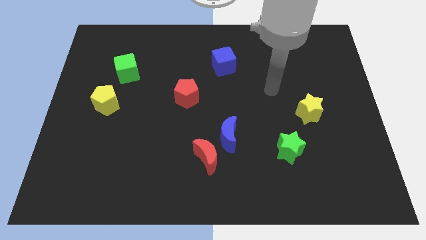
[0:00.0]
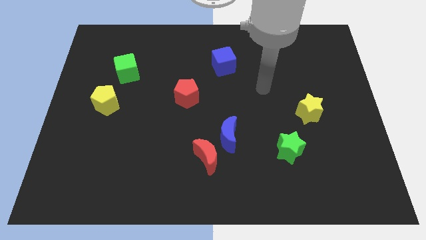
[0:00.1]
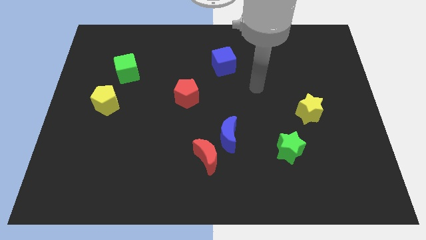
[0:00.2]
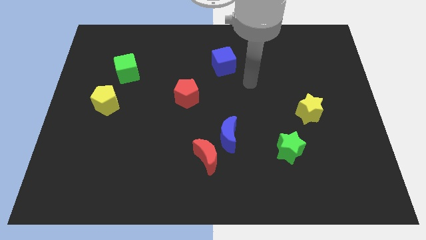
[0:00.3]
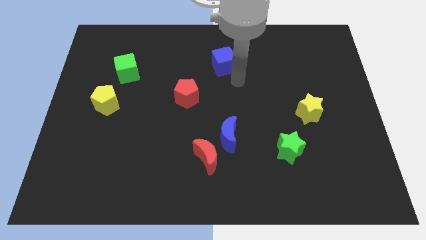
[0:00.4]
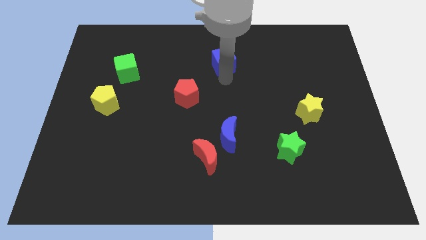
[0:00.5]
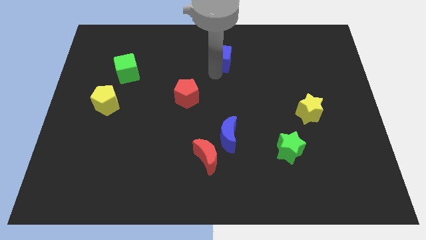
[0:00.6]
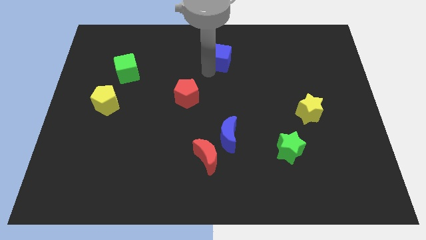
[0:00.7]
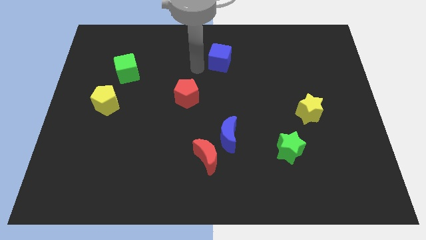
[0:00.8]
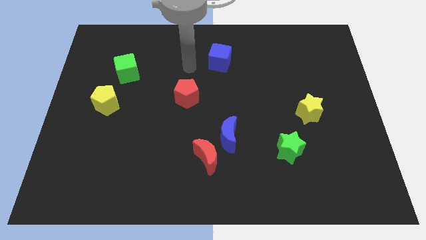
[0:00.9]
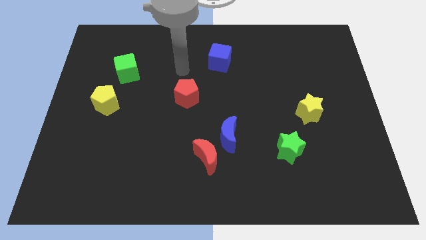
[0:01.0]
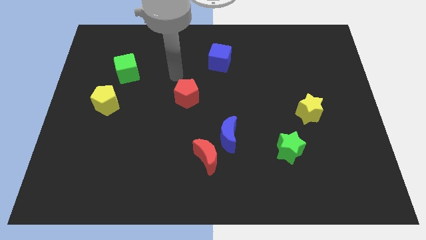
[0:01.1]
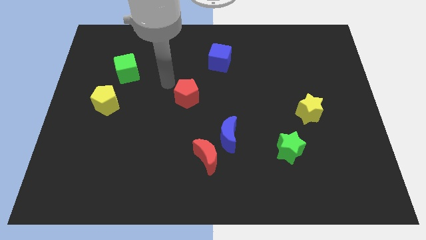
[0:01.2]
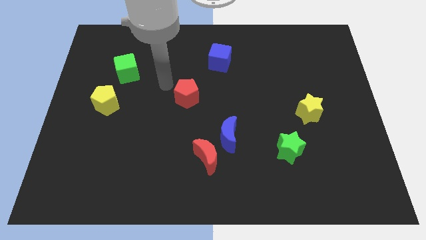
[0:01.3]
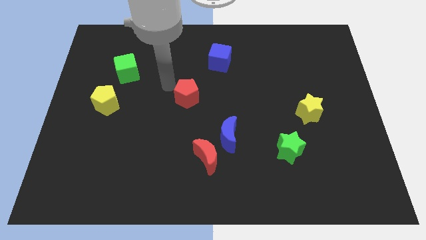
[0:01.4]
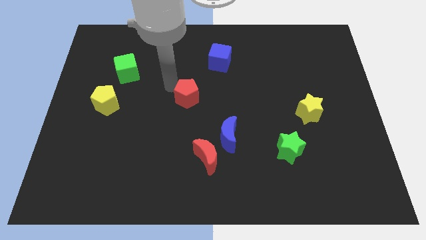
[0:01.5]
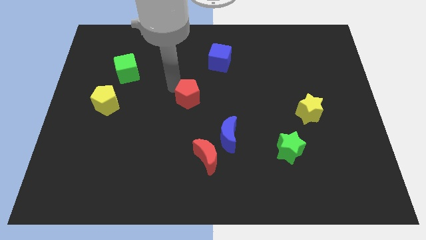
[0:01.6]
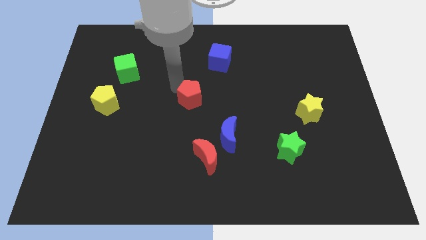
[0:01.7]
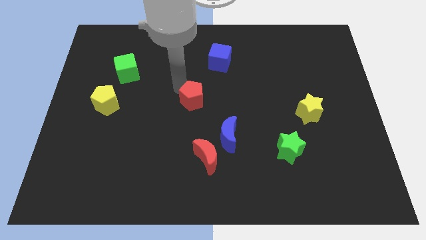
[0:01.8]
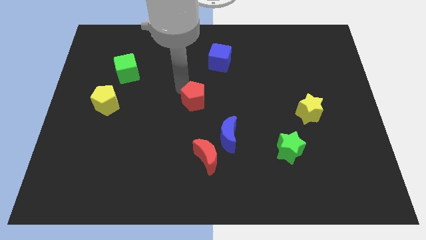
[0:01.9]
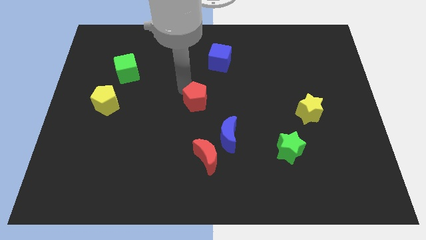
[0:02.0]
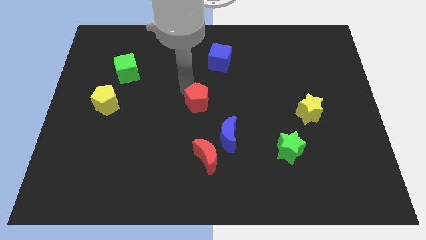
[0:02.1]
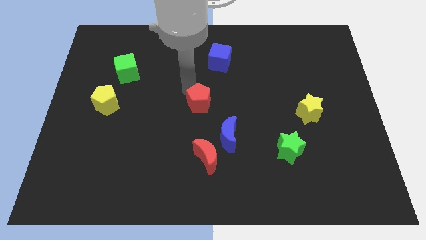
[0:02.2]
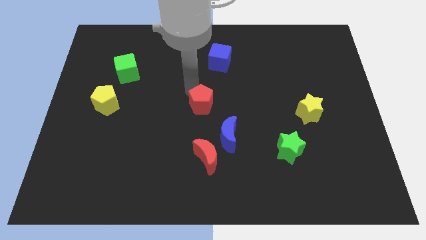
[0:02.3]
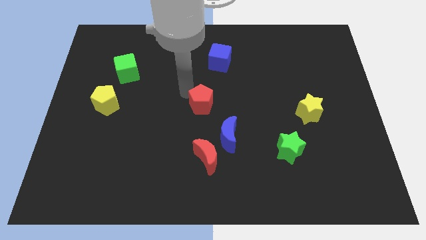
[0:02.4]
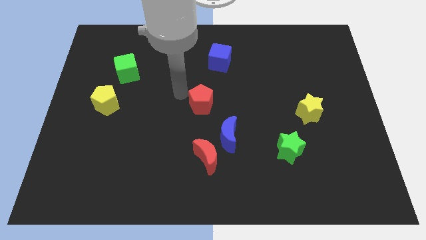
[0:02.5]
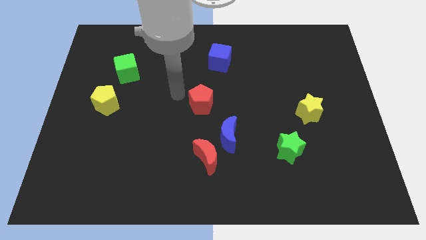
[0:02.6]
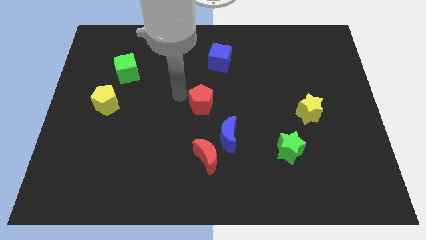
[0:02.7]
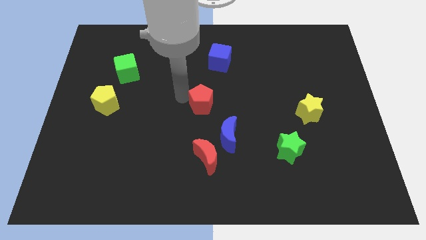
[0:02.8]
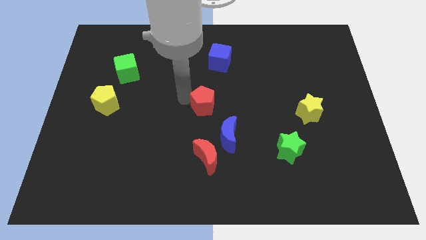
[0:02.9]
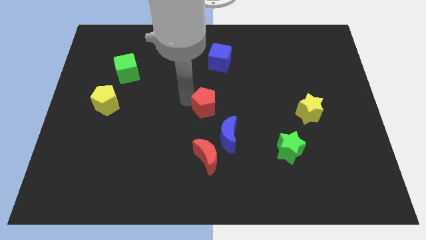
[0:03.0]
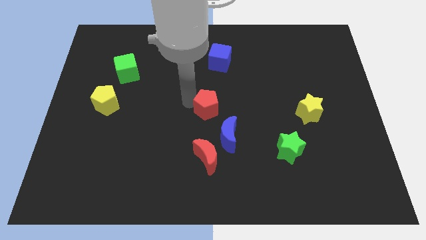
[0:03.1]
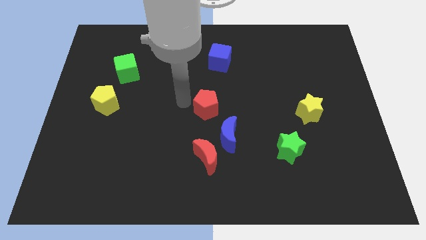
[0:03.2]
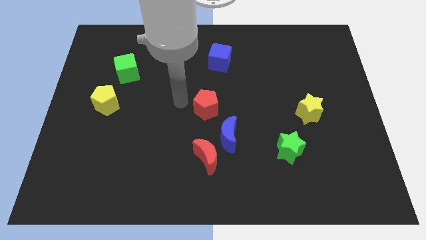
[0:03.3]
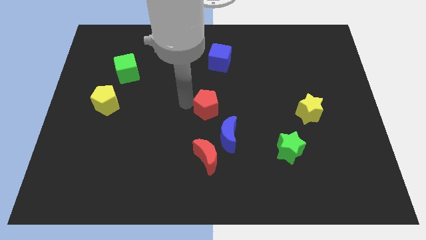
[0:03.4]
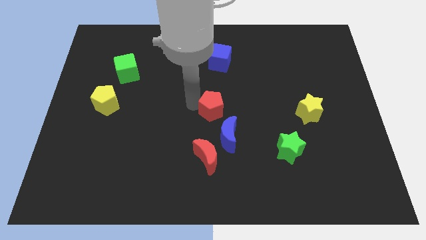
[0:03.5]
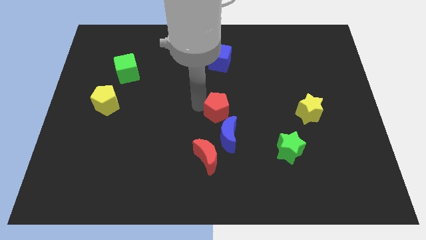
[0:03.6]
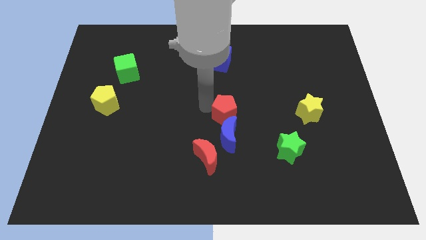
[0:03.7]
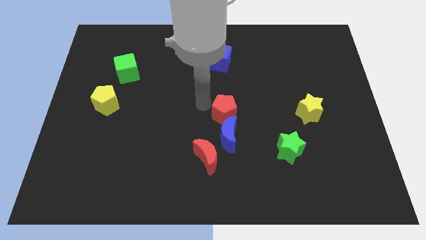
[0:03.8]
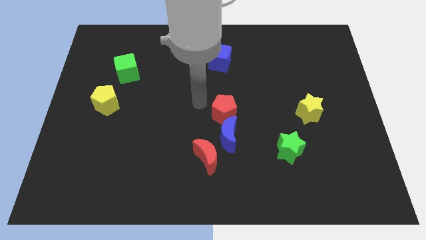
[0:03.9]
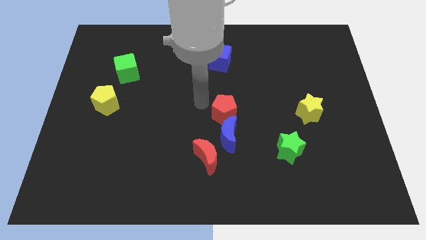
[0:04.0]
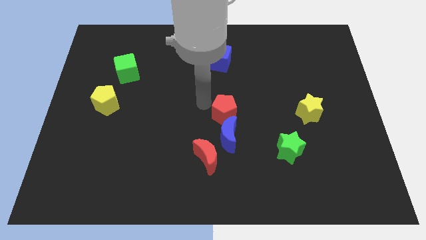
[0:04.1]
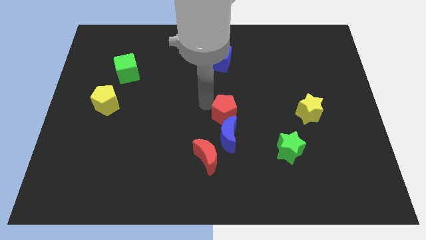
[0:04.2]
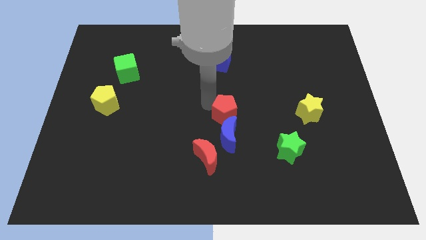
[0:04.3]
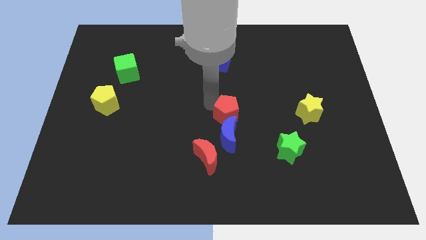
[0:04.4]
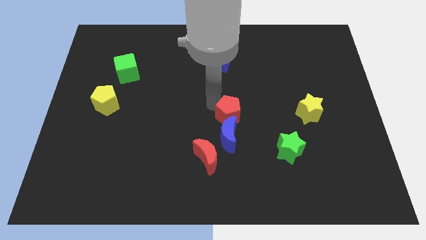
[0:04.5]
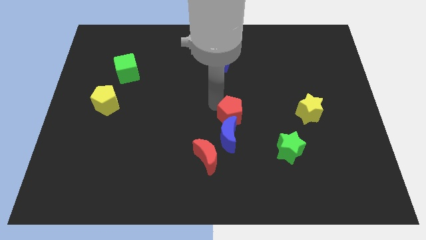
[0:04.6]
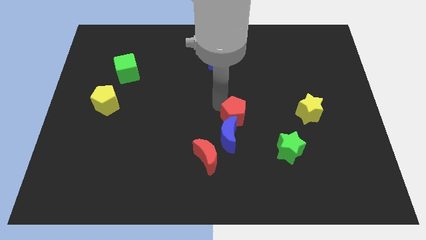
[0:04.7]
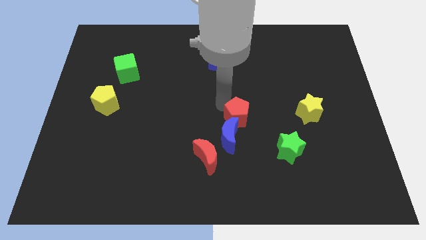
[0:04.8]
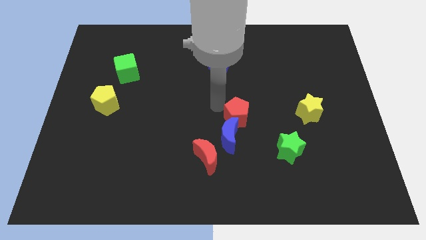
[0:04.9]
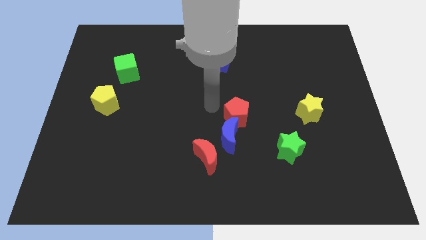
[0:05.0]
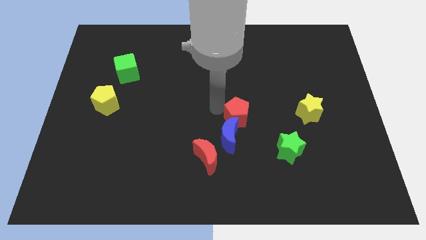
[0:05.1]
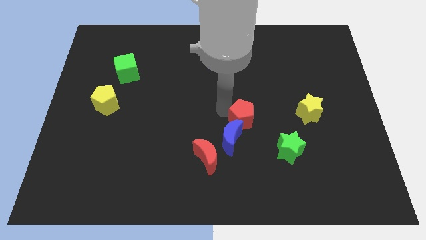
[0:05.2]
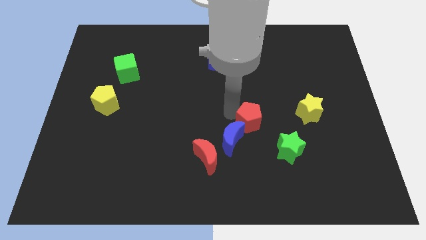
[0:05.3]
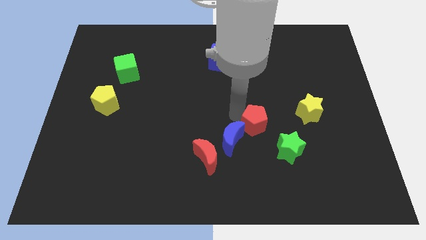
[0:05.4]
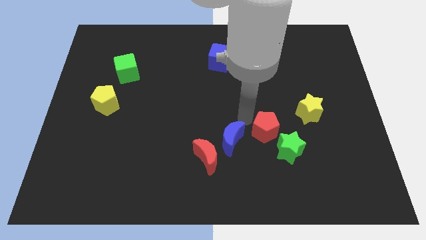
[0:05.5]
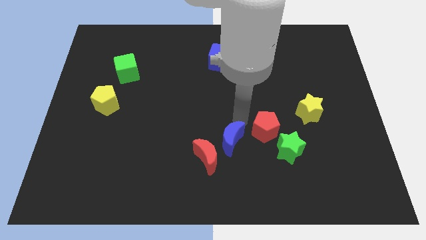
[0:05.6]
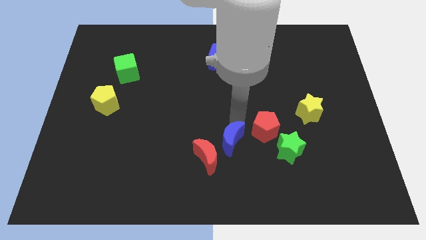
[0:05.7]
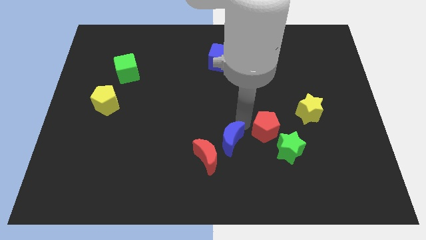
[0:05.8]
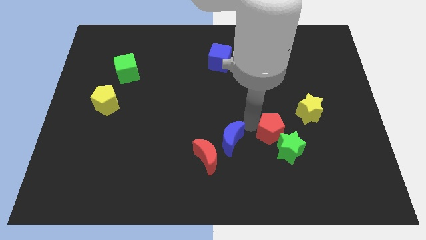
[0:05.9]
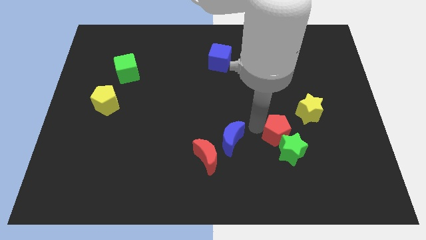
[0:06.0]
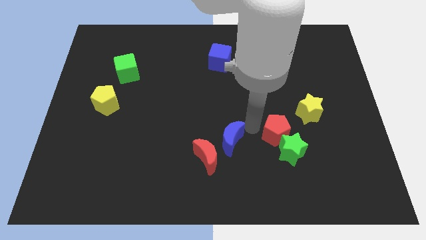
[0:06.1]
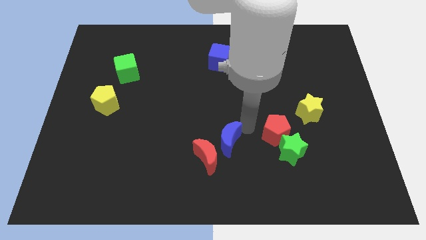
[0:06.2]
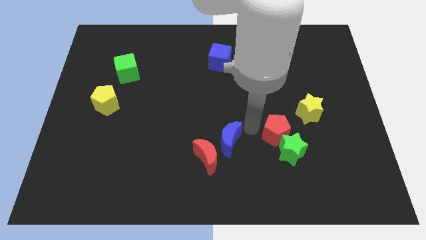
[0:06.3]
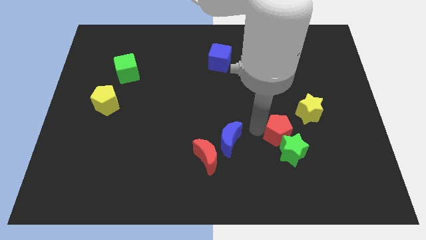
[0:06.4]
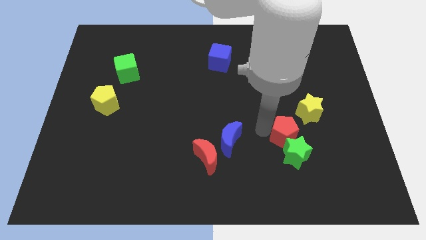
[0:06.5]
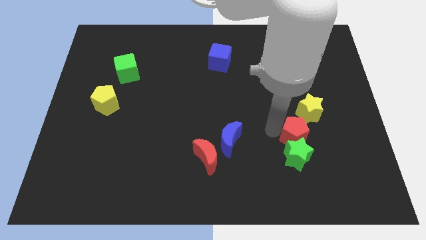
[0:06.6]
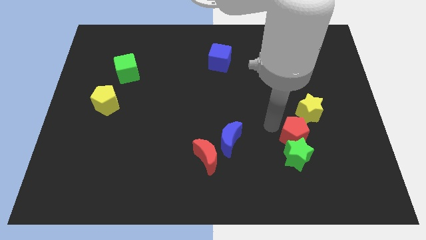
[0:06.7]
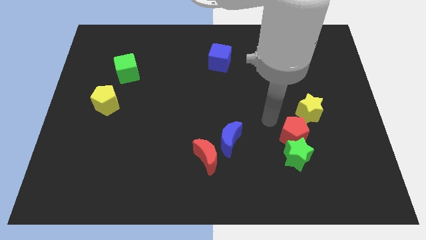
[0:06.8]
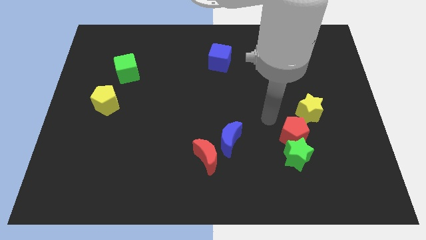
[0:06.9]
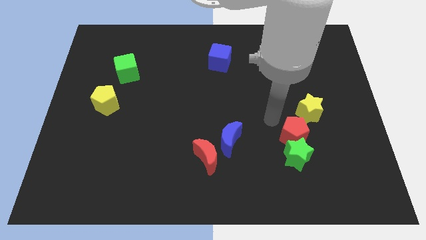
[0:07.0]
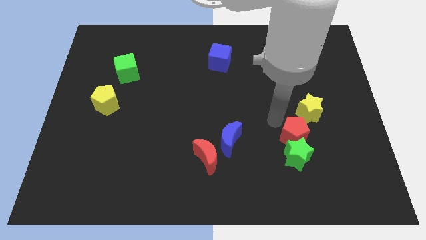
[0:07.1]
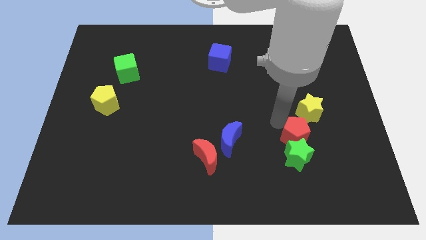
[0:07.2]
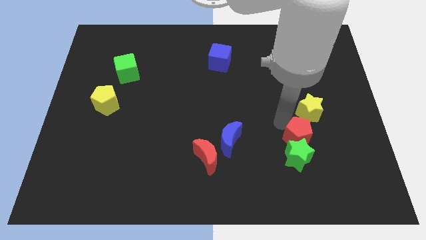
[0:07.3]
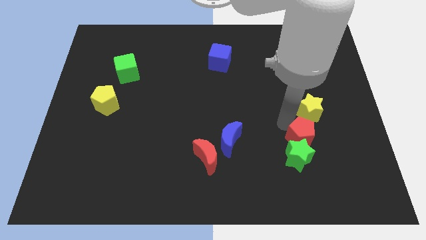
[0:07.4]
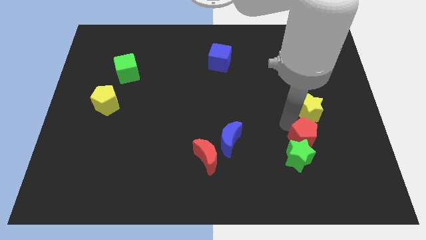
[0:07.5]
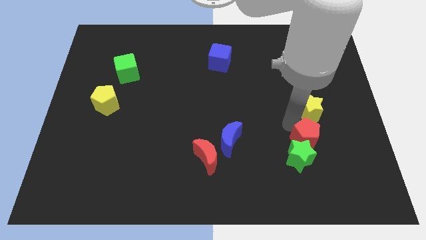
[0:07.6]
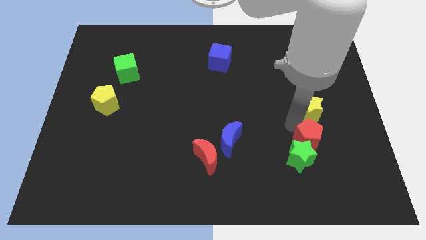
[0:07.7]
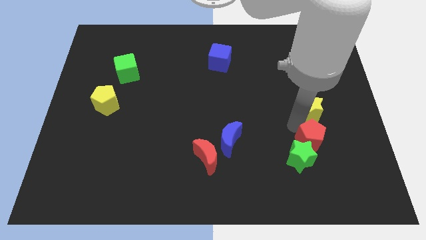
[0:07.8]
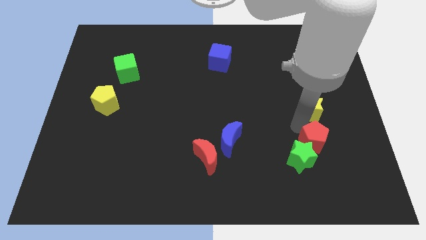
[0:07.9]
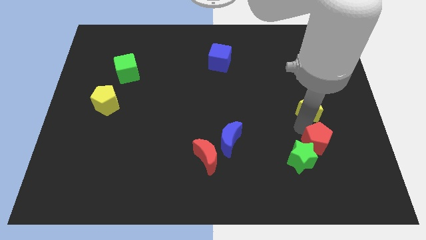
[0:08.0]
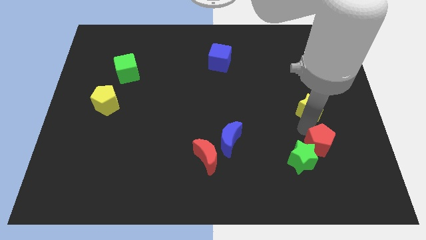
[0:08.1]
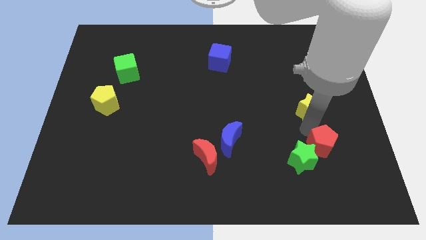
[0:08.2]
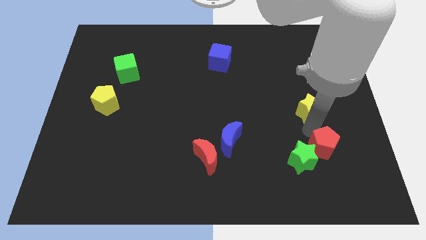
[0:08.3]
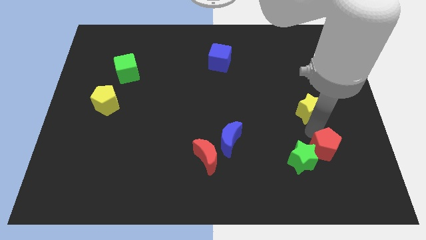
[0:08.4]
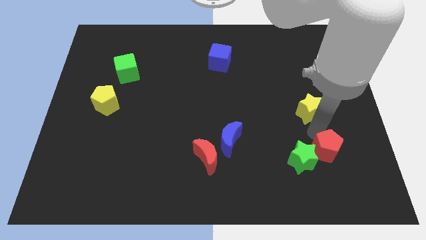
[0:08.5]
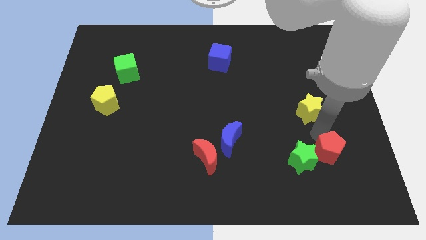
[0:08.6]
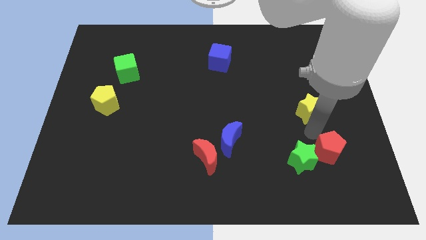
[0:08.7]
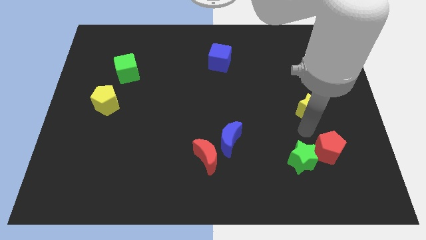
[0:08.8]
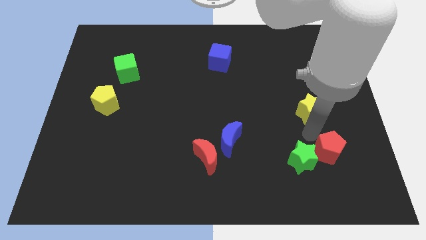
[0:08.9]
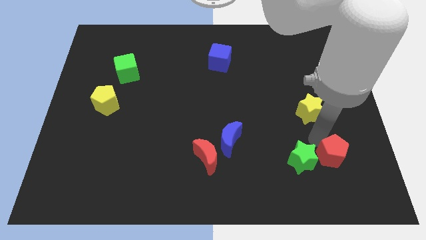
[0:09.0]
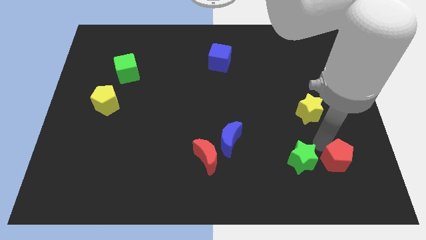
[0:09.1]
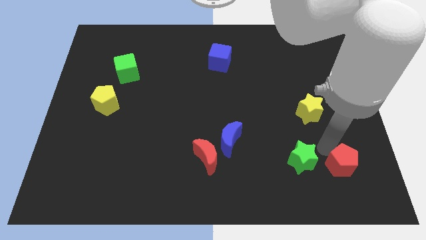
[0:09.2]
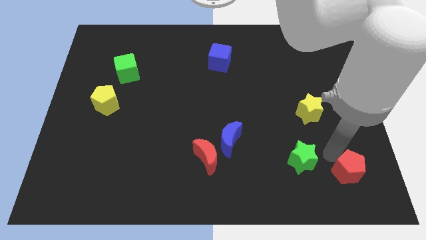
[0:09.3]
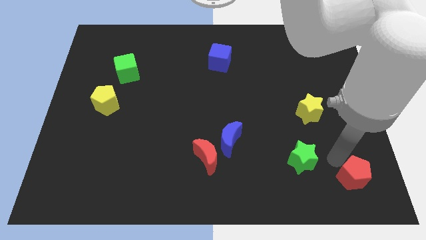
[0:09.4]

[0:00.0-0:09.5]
put the red pentagon to the bottom right
